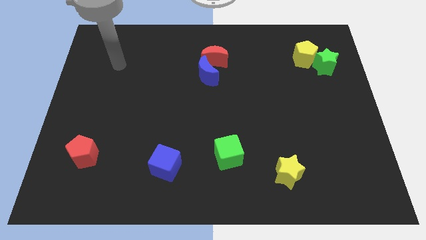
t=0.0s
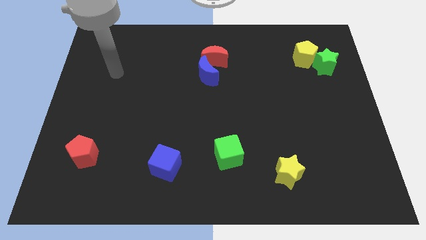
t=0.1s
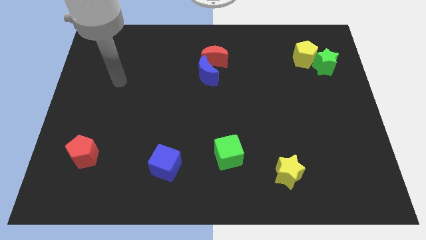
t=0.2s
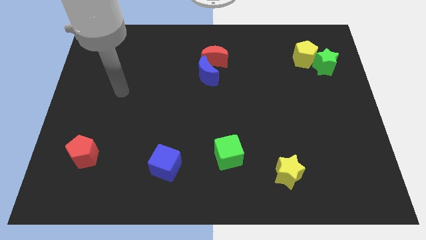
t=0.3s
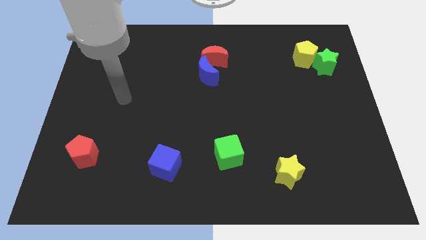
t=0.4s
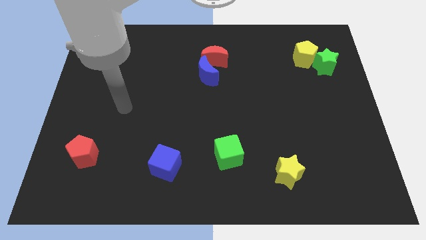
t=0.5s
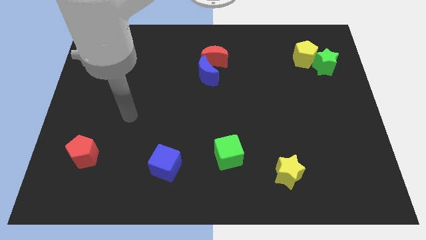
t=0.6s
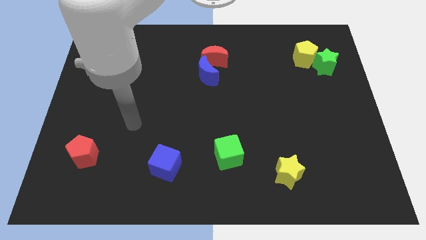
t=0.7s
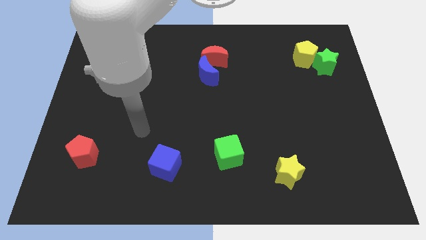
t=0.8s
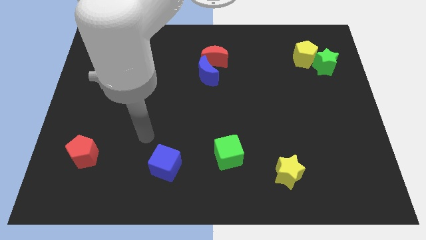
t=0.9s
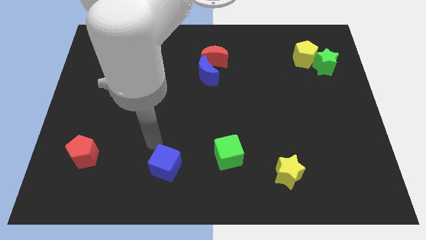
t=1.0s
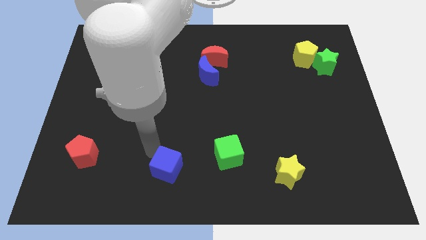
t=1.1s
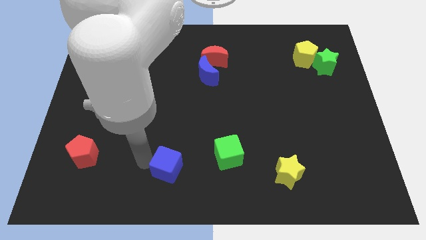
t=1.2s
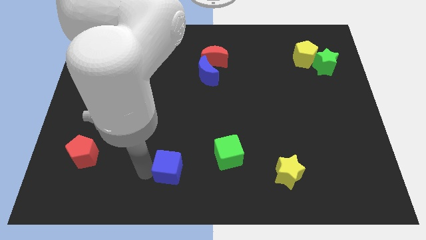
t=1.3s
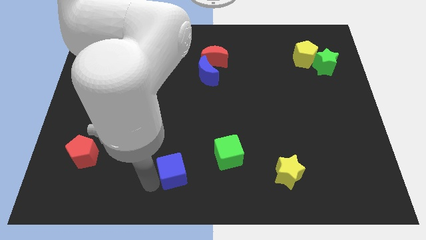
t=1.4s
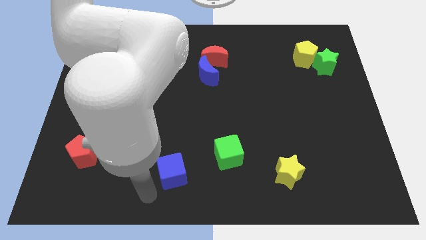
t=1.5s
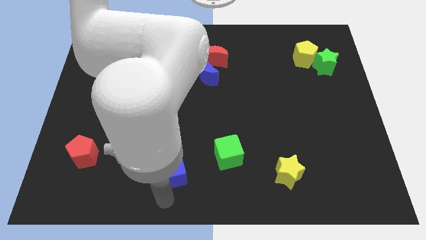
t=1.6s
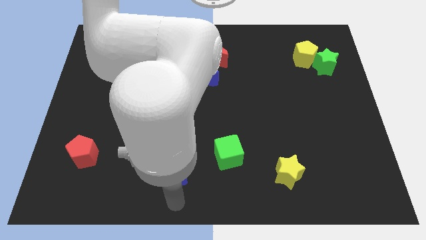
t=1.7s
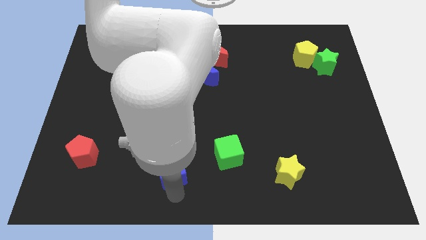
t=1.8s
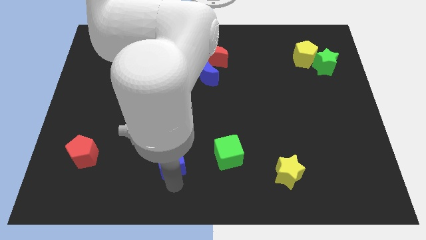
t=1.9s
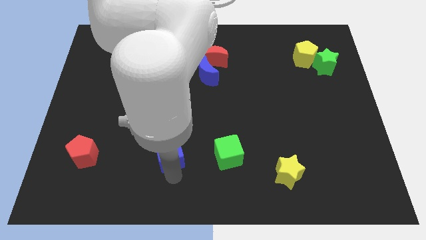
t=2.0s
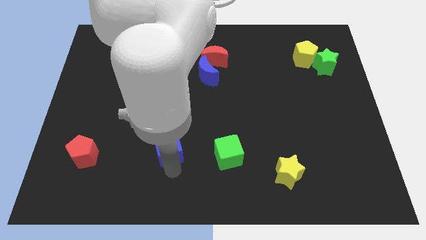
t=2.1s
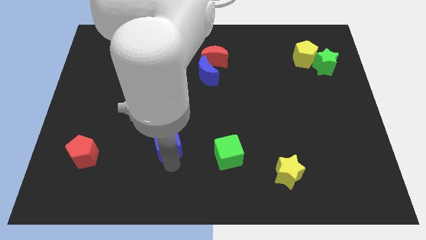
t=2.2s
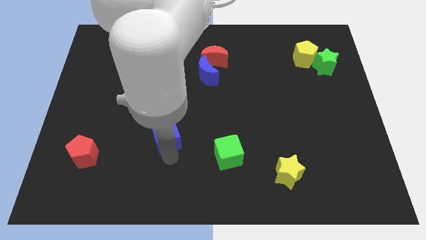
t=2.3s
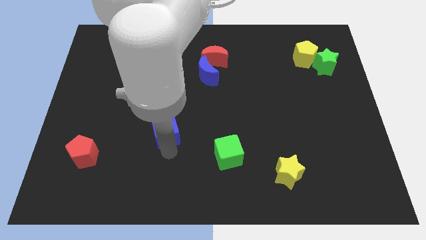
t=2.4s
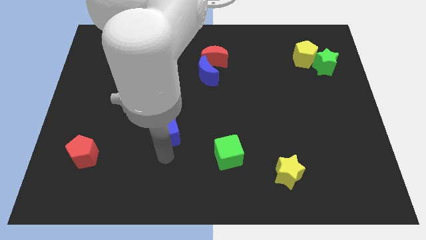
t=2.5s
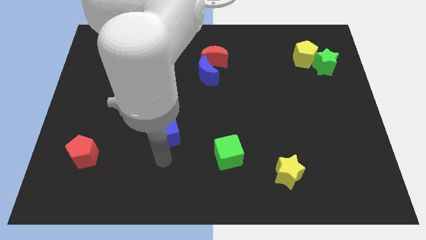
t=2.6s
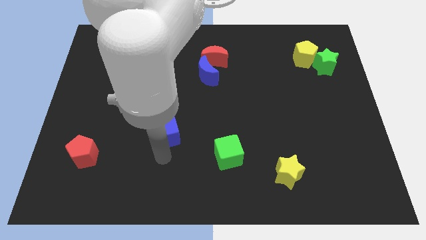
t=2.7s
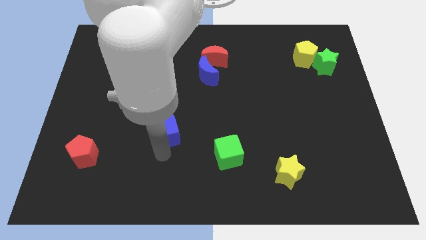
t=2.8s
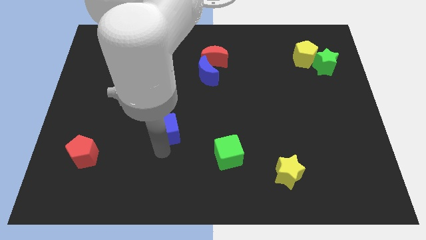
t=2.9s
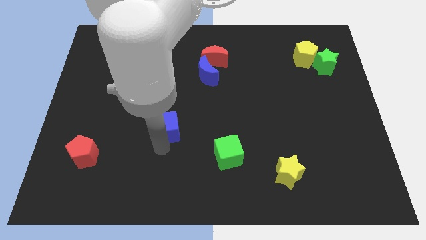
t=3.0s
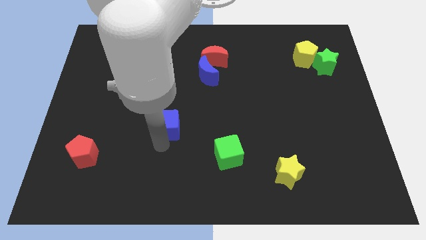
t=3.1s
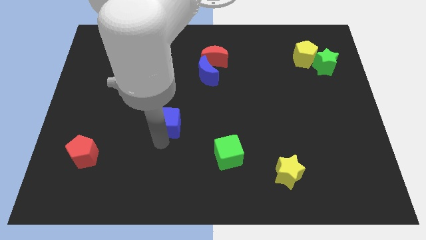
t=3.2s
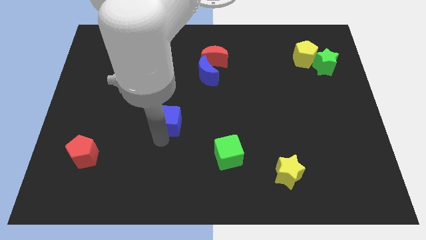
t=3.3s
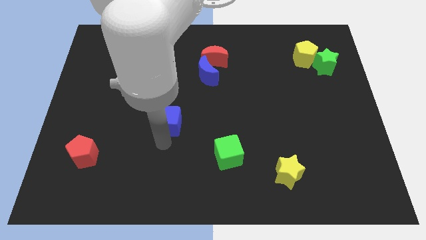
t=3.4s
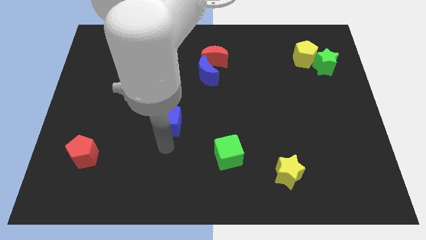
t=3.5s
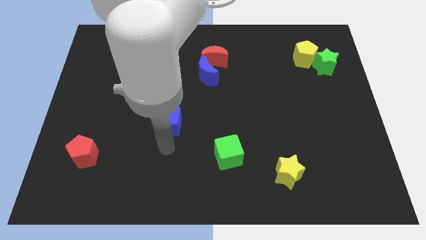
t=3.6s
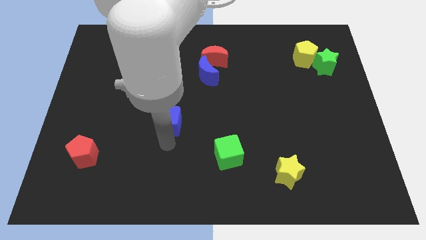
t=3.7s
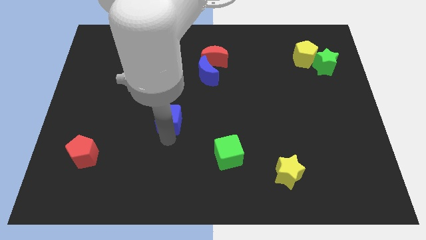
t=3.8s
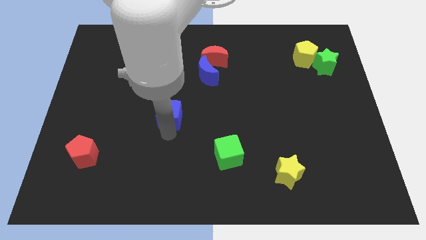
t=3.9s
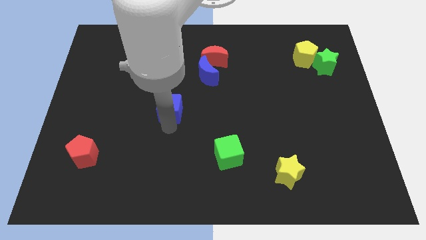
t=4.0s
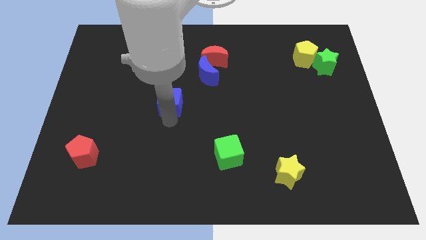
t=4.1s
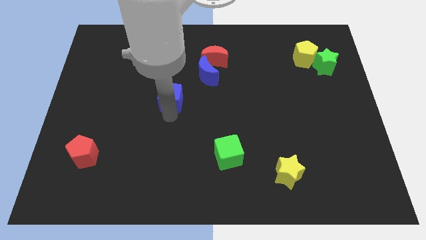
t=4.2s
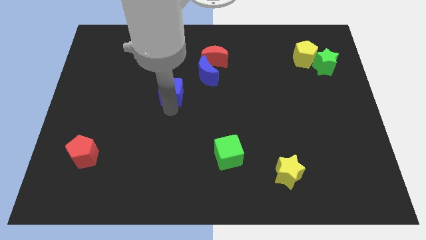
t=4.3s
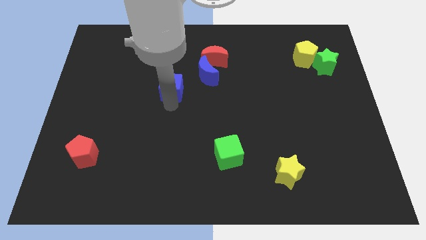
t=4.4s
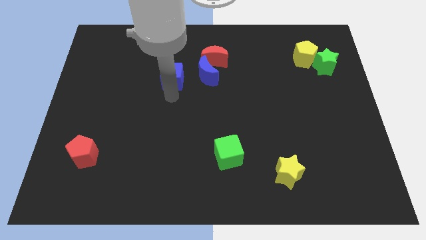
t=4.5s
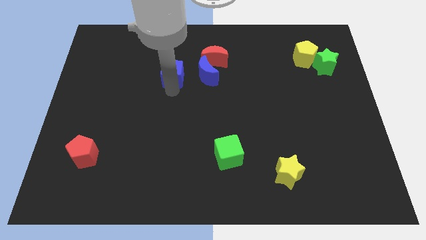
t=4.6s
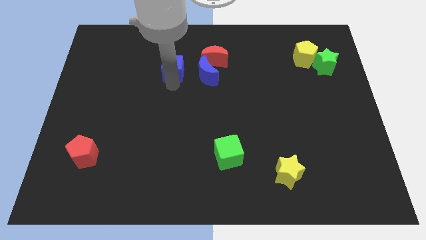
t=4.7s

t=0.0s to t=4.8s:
push the blue cube left of the red moon

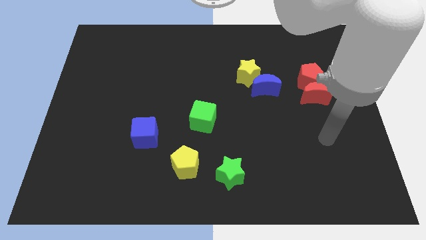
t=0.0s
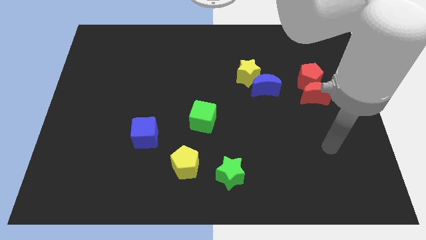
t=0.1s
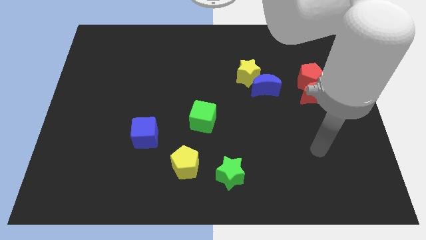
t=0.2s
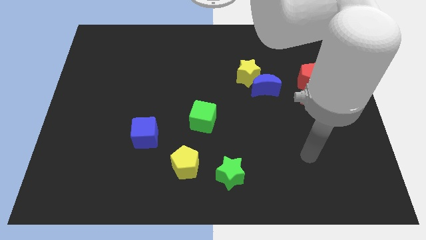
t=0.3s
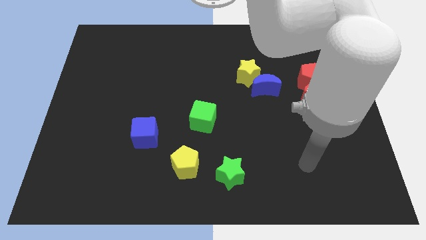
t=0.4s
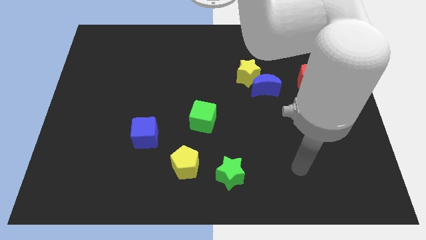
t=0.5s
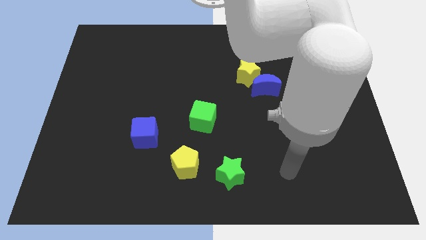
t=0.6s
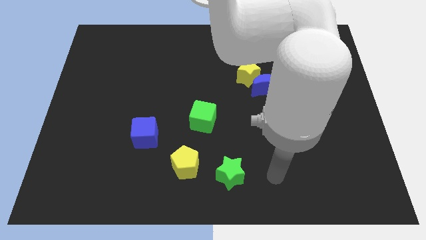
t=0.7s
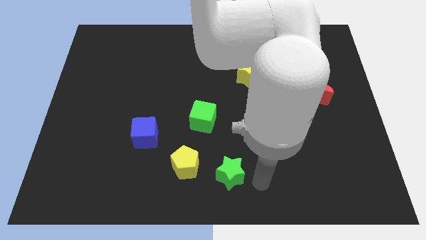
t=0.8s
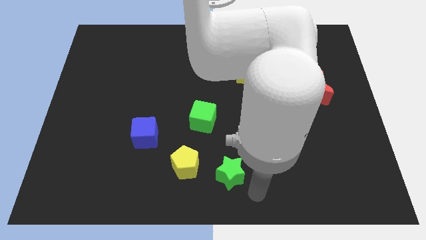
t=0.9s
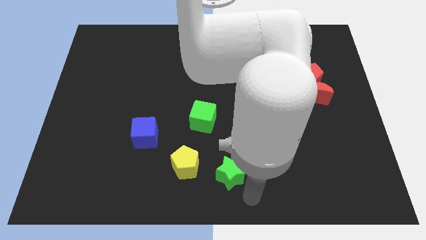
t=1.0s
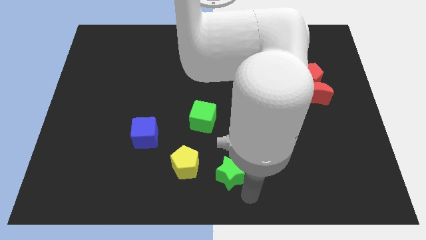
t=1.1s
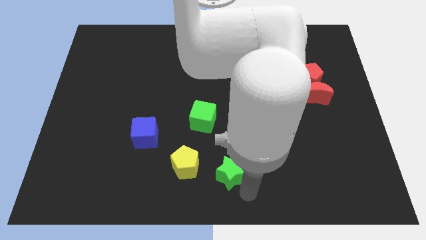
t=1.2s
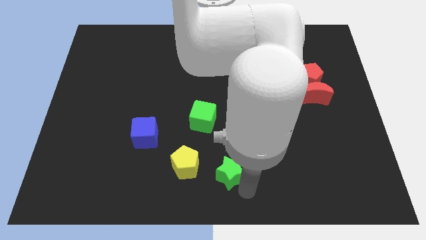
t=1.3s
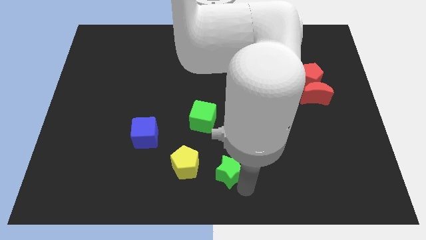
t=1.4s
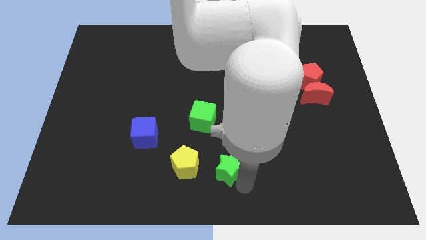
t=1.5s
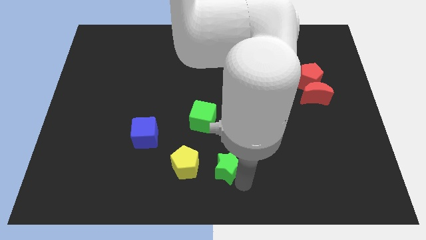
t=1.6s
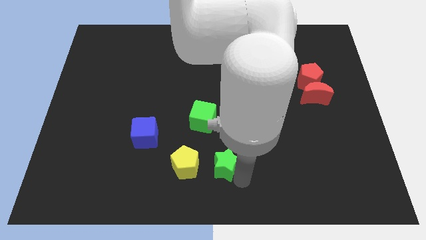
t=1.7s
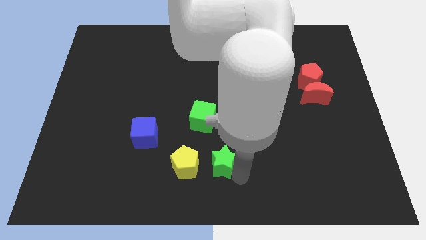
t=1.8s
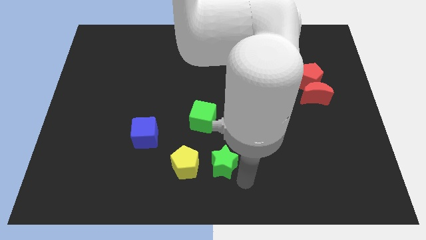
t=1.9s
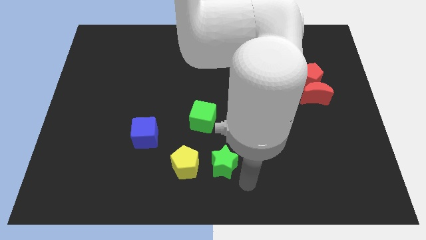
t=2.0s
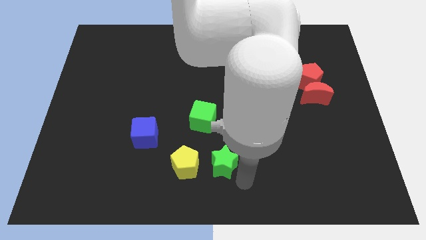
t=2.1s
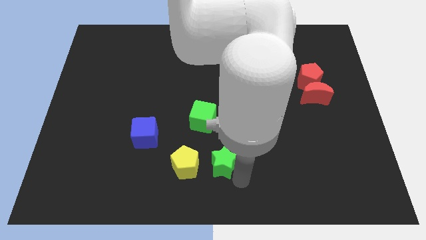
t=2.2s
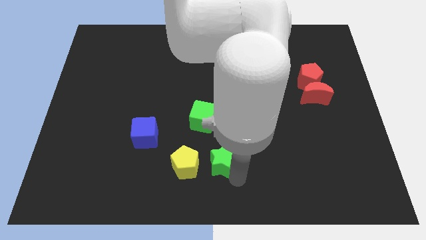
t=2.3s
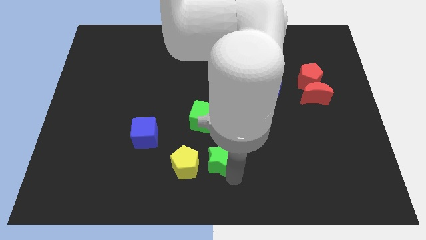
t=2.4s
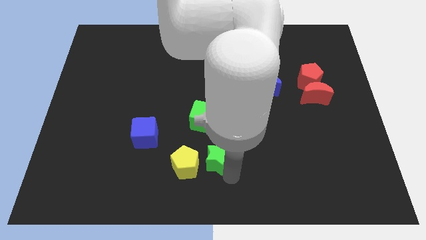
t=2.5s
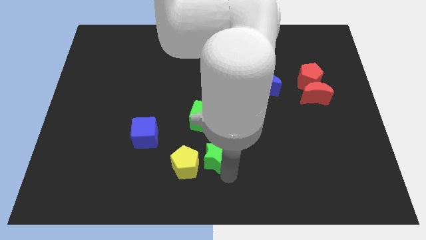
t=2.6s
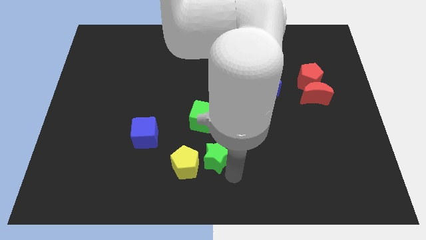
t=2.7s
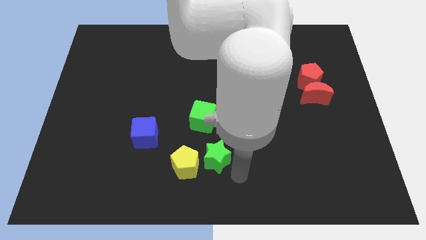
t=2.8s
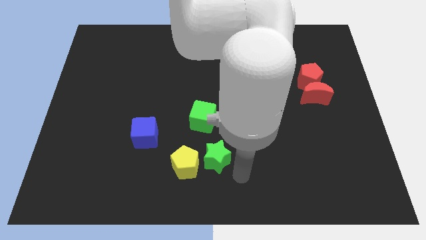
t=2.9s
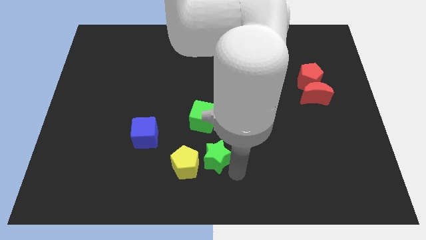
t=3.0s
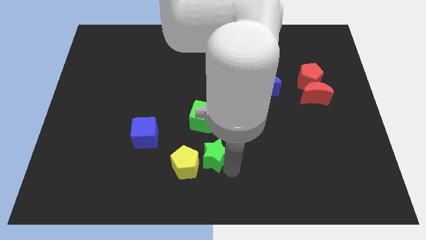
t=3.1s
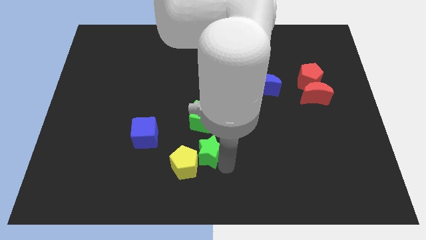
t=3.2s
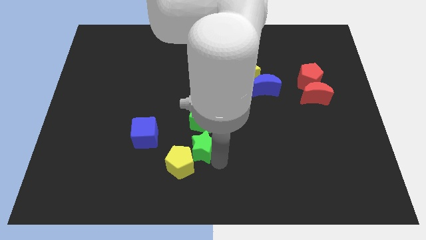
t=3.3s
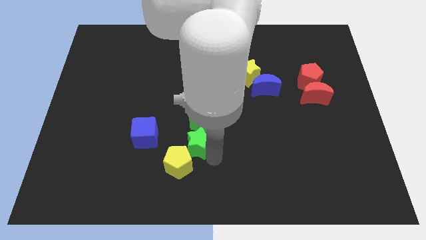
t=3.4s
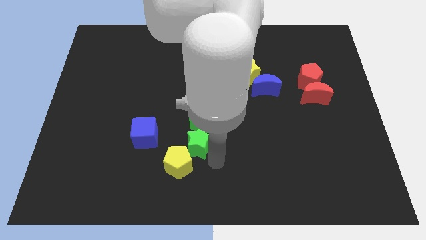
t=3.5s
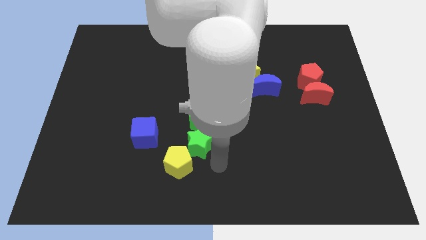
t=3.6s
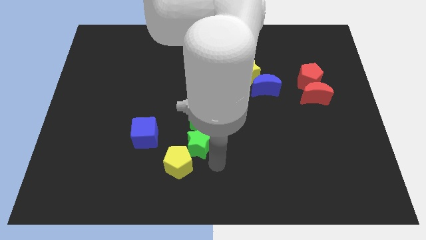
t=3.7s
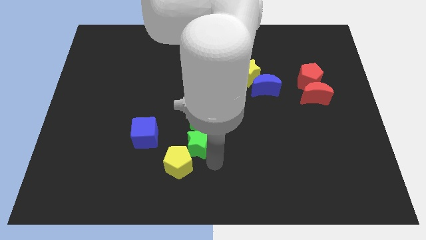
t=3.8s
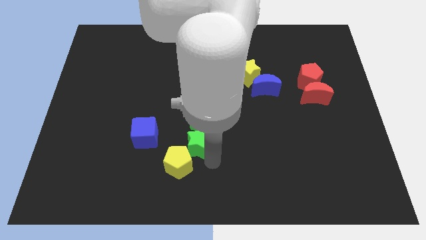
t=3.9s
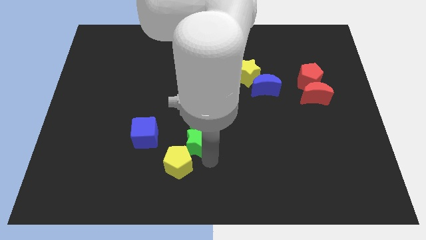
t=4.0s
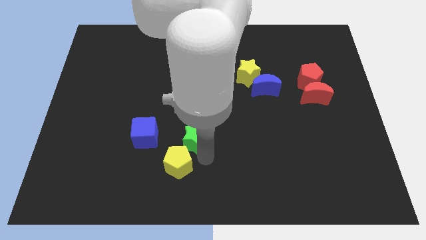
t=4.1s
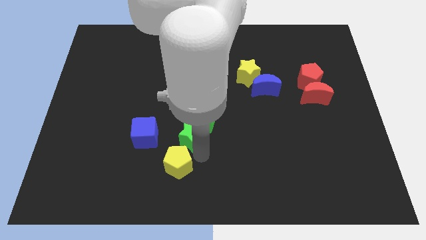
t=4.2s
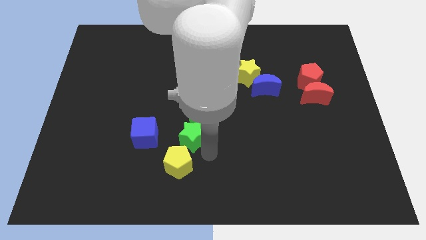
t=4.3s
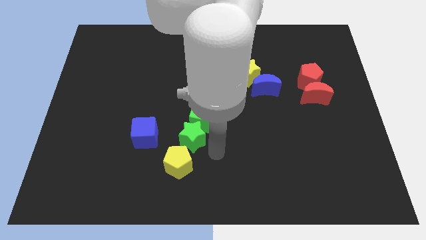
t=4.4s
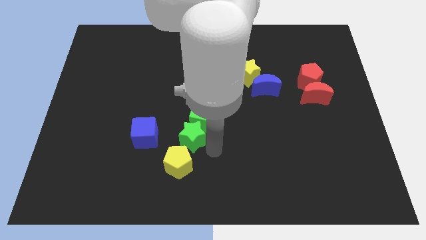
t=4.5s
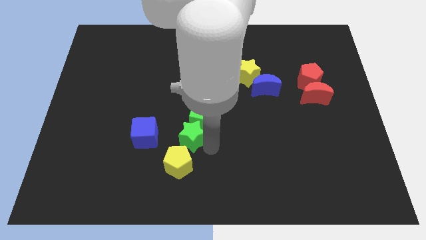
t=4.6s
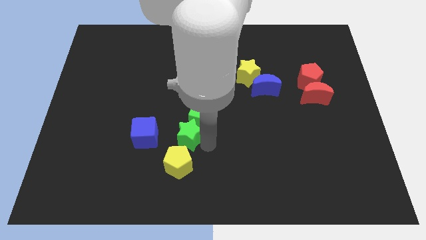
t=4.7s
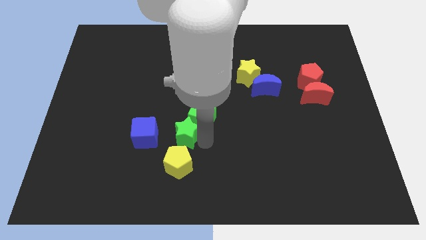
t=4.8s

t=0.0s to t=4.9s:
move the green star just left of the green cube
